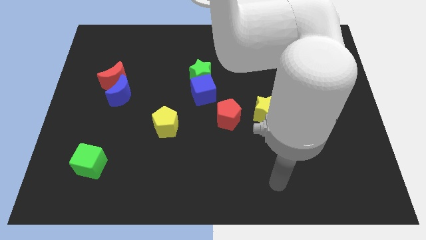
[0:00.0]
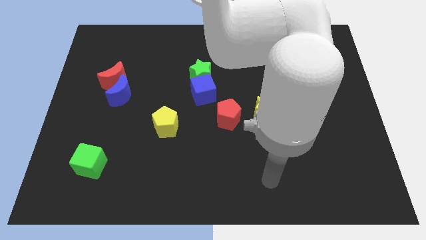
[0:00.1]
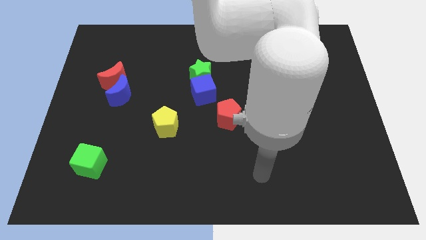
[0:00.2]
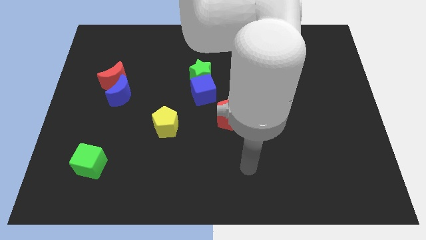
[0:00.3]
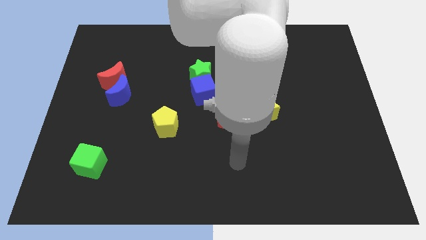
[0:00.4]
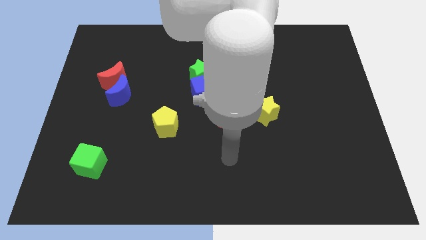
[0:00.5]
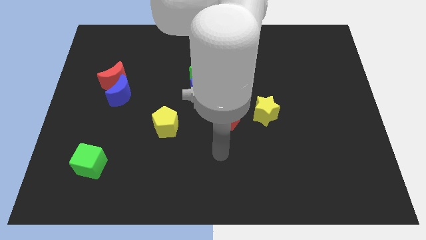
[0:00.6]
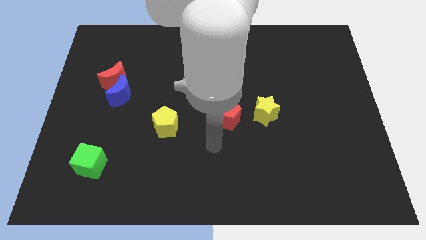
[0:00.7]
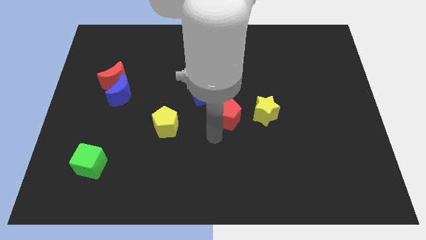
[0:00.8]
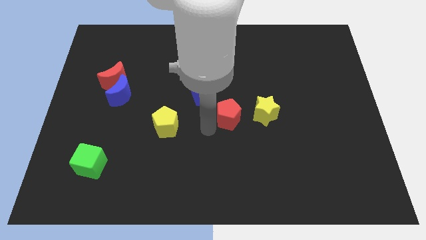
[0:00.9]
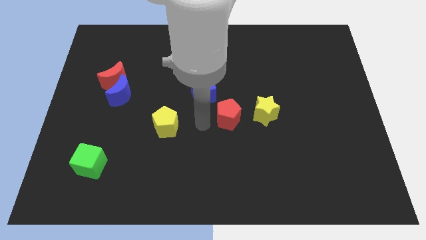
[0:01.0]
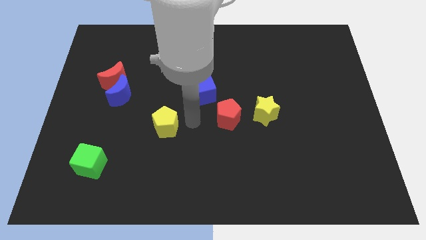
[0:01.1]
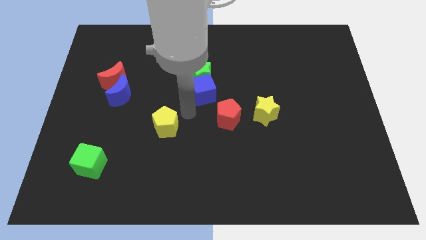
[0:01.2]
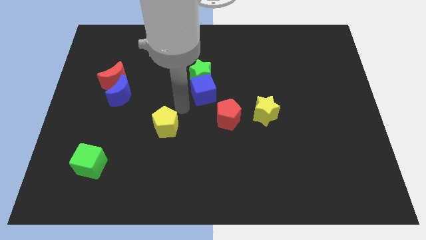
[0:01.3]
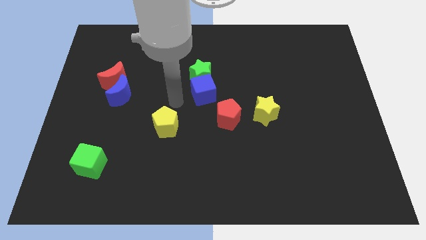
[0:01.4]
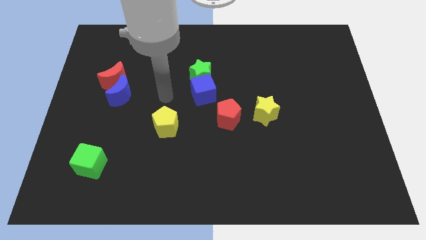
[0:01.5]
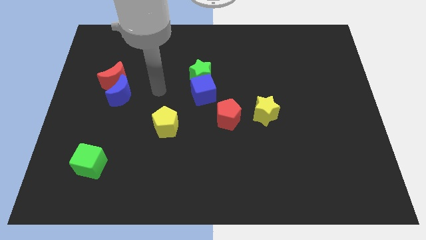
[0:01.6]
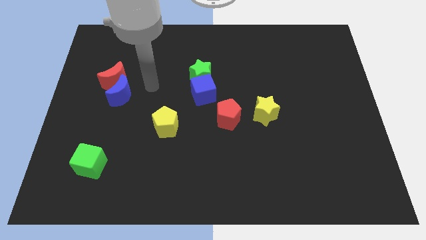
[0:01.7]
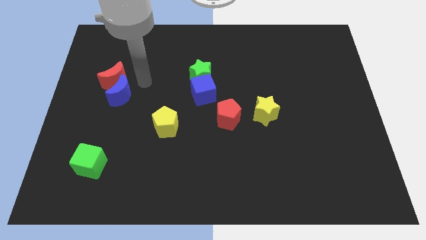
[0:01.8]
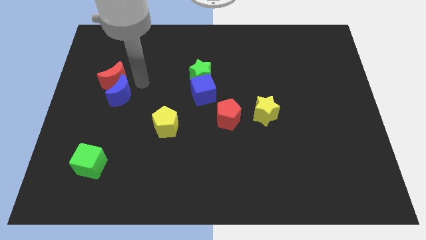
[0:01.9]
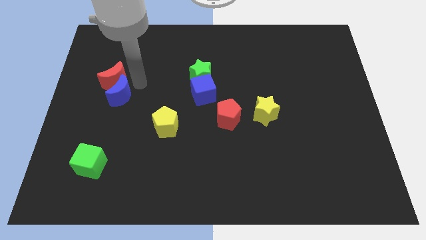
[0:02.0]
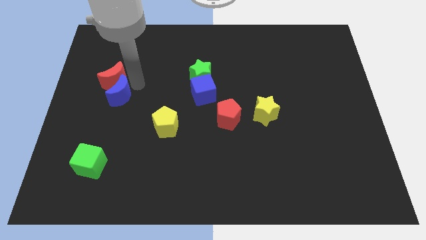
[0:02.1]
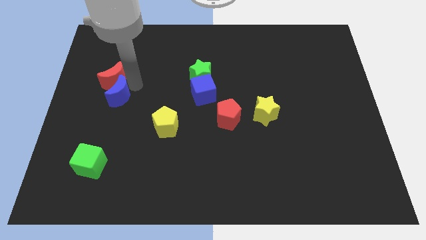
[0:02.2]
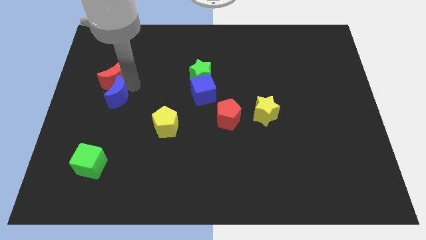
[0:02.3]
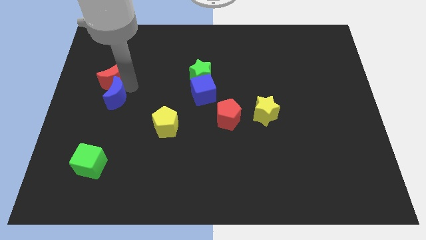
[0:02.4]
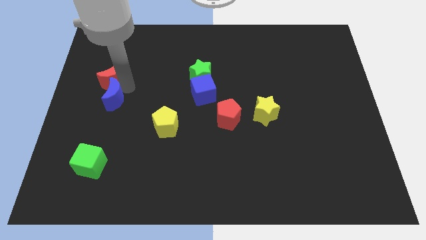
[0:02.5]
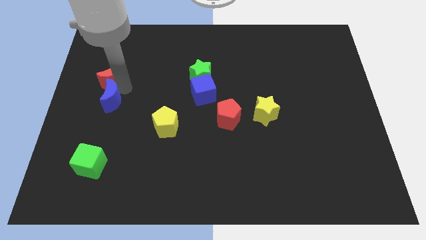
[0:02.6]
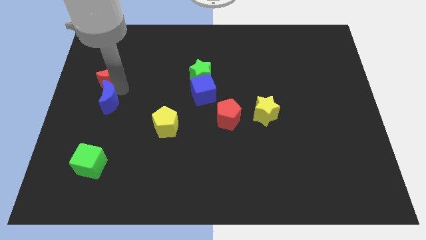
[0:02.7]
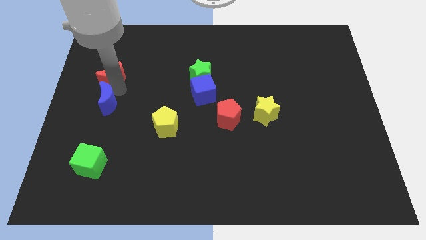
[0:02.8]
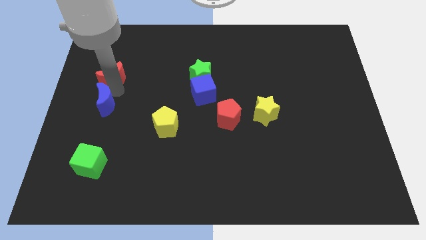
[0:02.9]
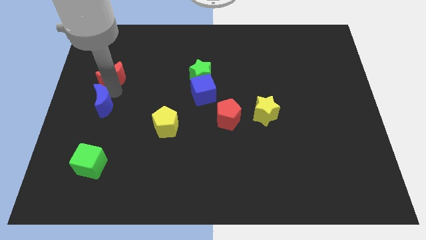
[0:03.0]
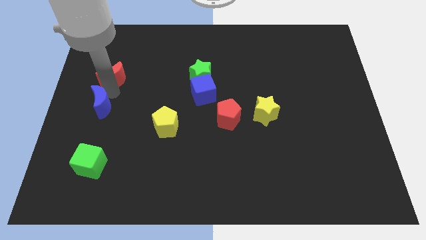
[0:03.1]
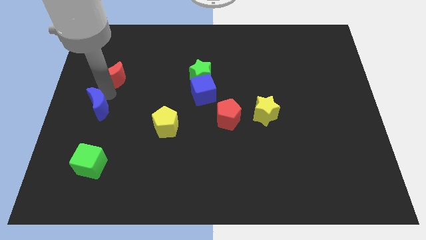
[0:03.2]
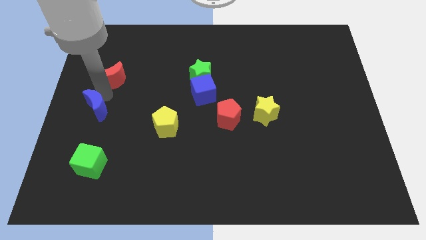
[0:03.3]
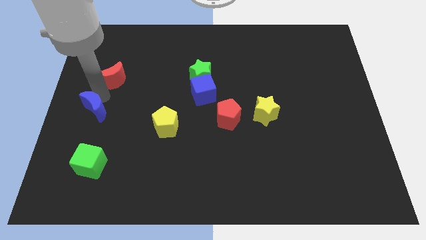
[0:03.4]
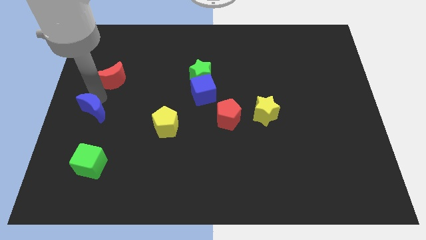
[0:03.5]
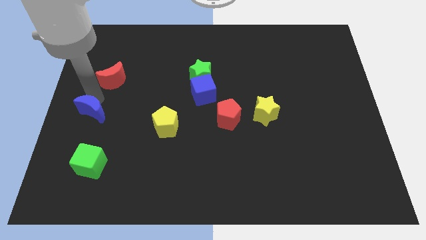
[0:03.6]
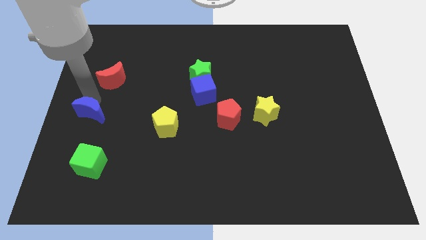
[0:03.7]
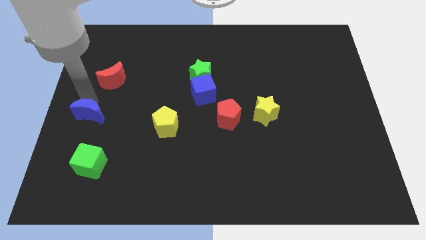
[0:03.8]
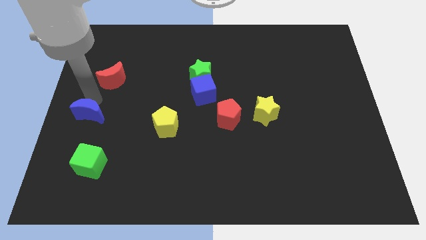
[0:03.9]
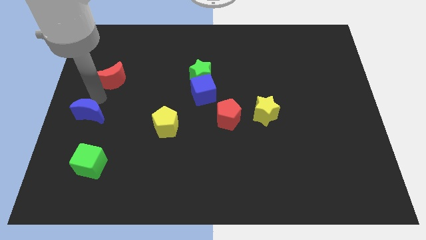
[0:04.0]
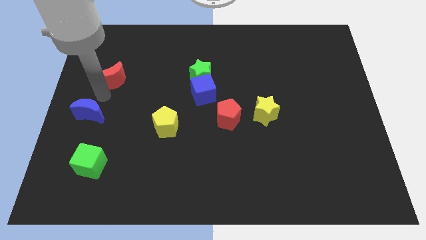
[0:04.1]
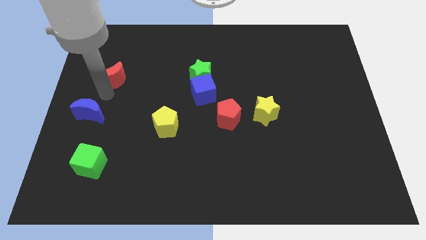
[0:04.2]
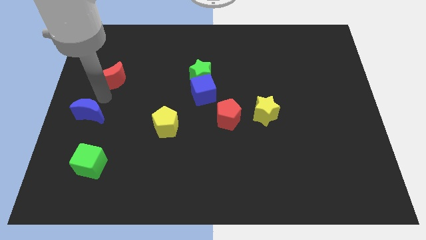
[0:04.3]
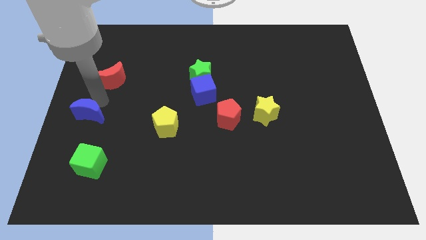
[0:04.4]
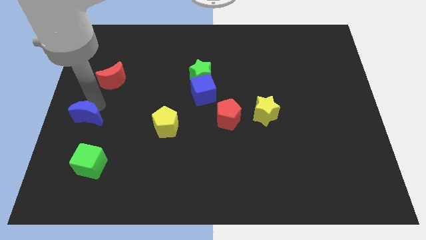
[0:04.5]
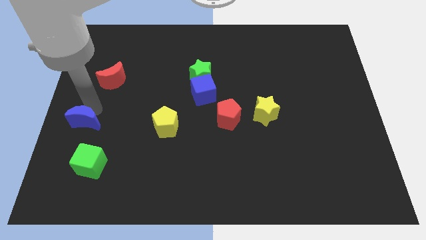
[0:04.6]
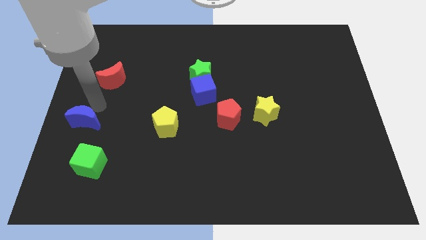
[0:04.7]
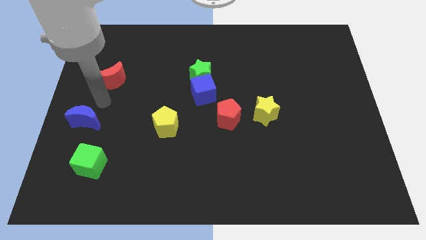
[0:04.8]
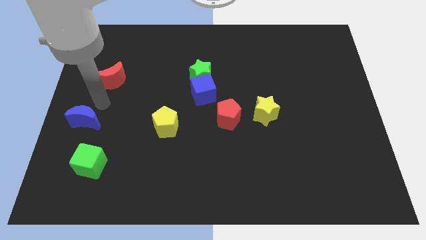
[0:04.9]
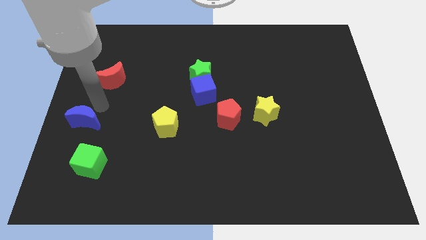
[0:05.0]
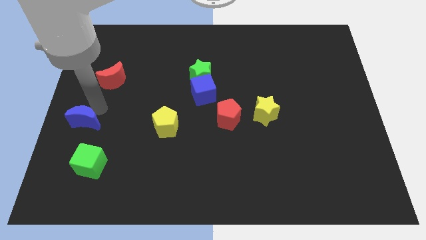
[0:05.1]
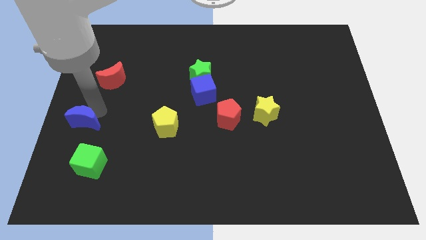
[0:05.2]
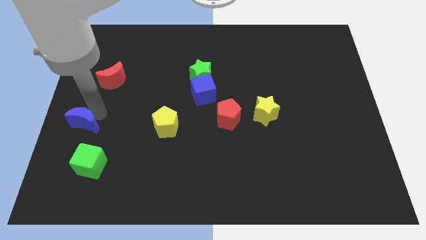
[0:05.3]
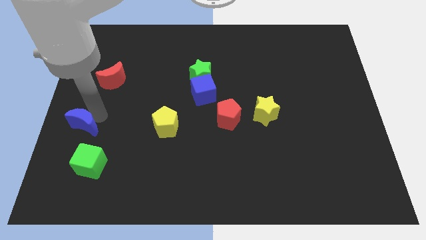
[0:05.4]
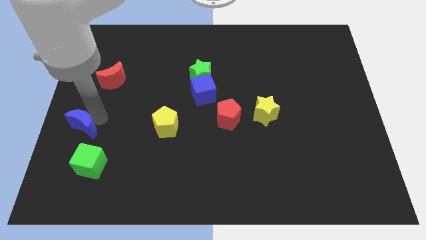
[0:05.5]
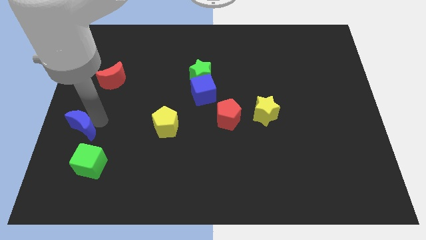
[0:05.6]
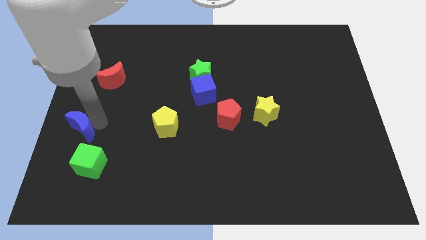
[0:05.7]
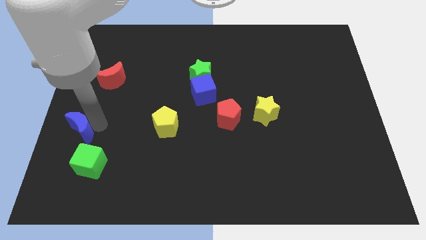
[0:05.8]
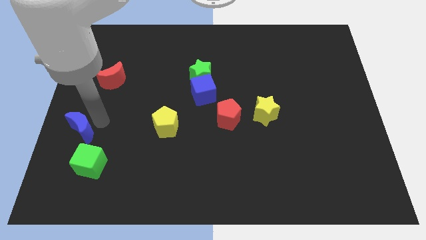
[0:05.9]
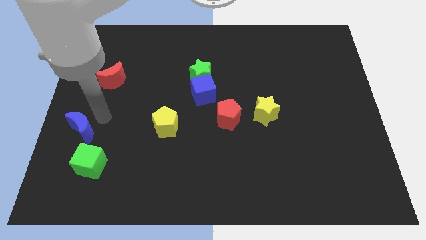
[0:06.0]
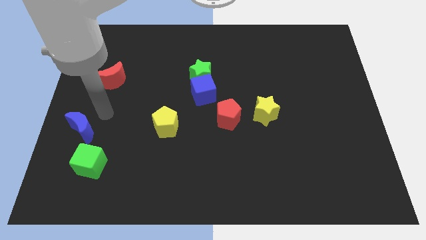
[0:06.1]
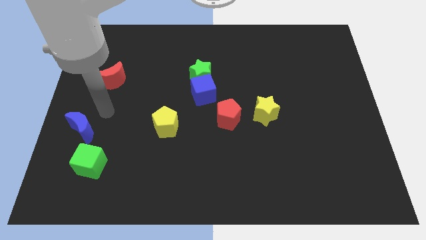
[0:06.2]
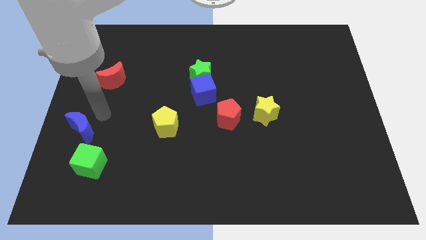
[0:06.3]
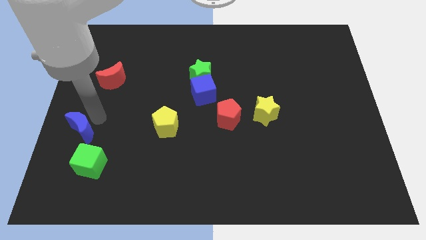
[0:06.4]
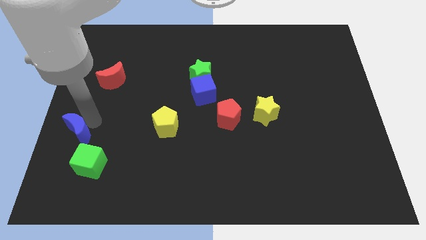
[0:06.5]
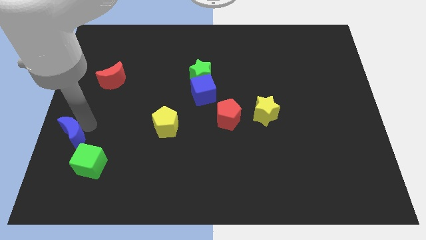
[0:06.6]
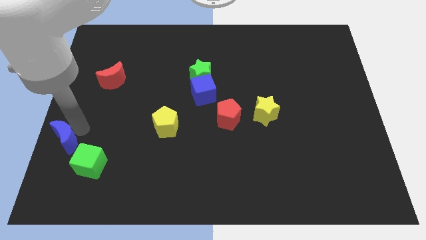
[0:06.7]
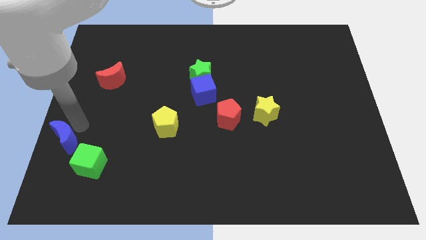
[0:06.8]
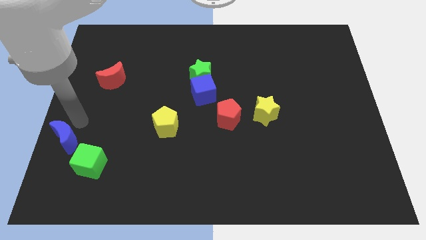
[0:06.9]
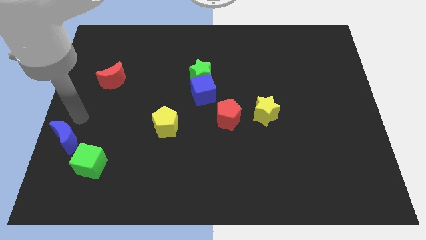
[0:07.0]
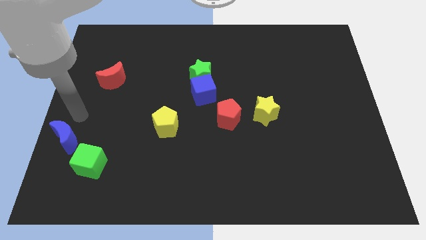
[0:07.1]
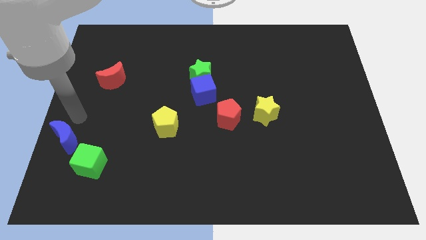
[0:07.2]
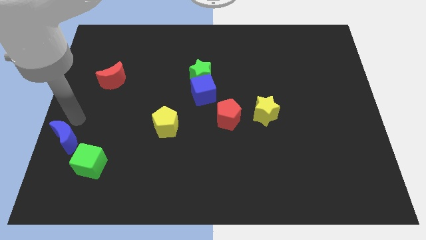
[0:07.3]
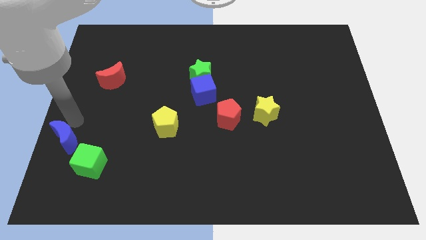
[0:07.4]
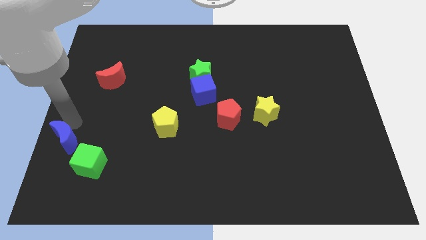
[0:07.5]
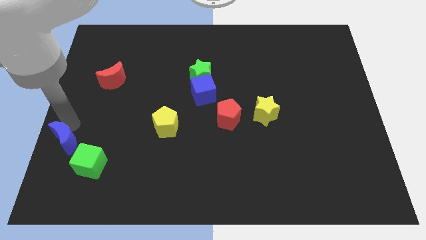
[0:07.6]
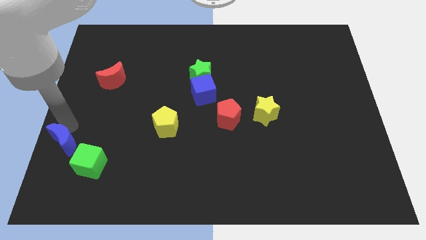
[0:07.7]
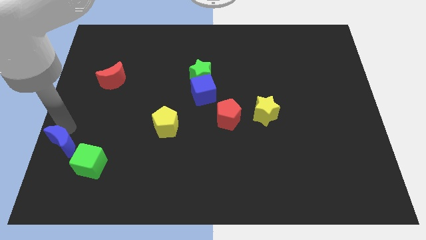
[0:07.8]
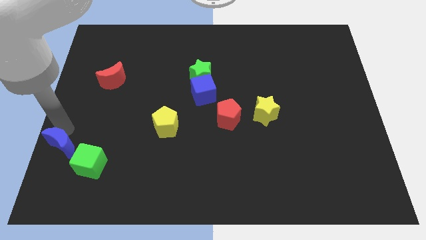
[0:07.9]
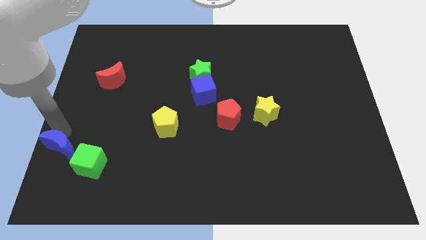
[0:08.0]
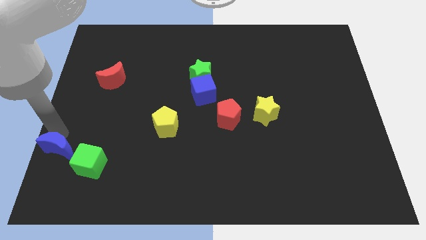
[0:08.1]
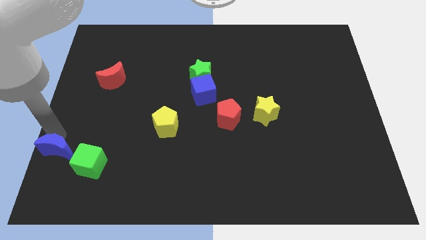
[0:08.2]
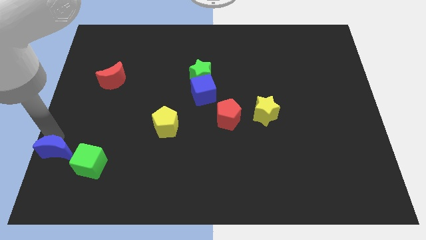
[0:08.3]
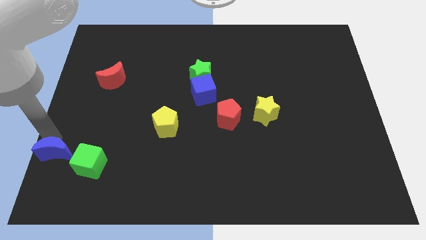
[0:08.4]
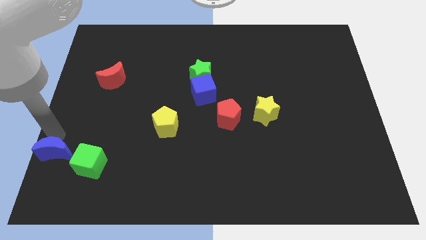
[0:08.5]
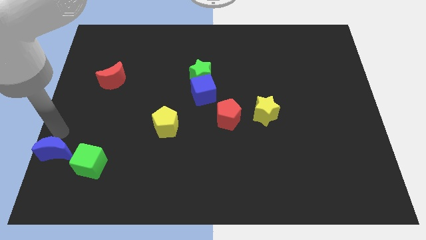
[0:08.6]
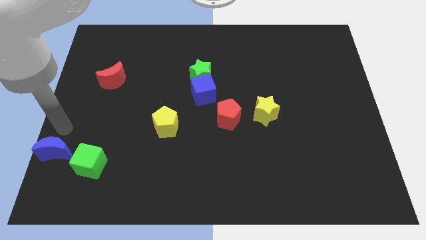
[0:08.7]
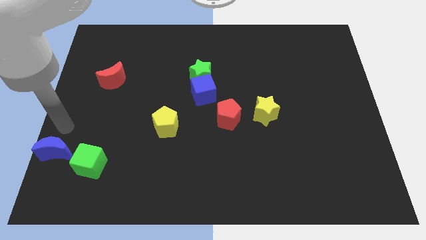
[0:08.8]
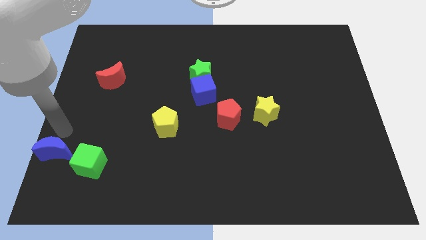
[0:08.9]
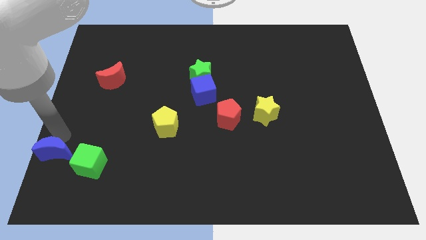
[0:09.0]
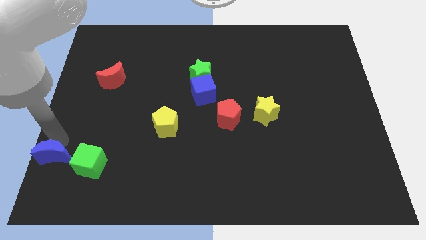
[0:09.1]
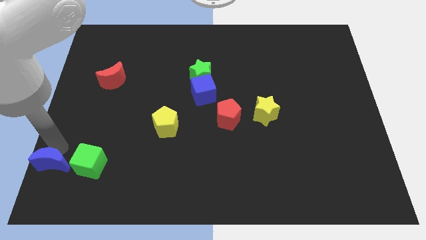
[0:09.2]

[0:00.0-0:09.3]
slide the blue moon to the bottom left corner
